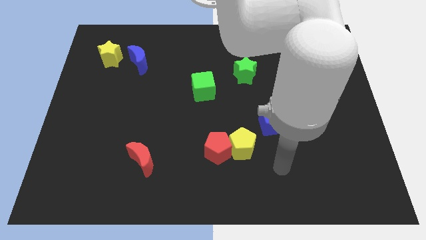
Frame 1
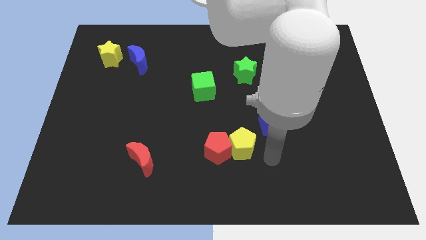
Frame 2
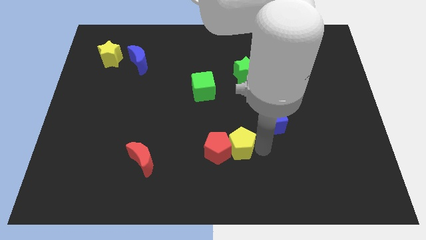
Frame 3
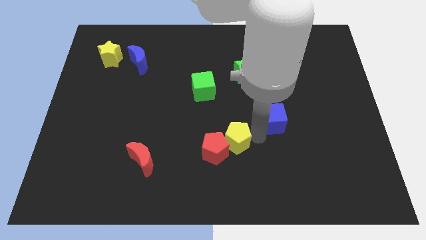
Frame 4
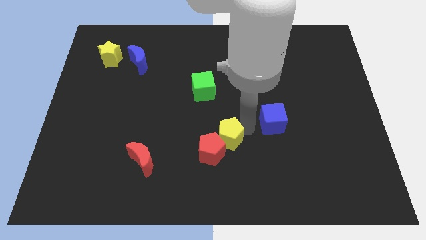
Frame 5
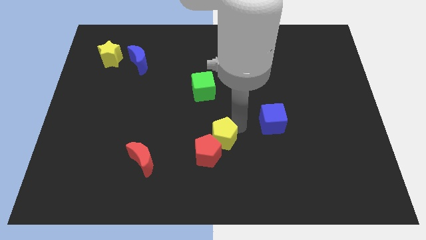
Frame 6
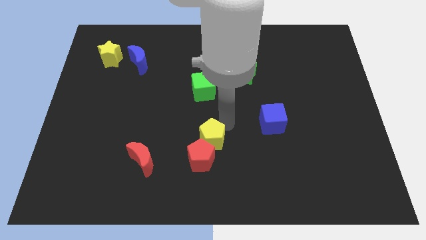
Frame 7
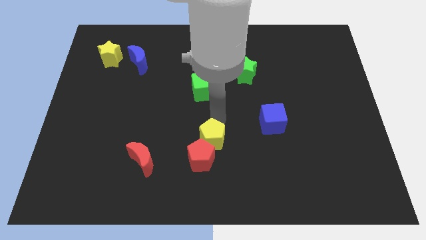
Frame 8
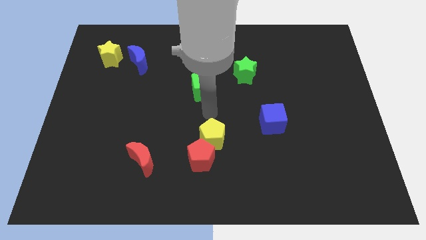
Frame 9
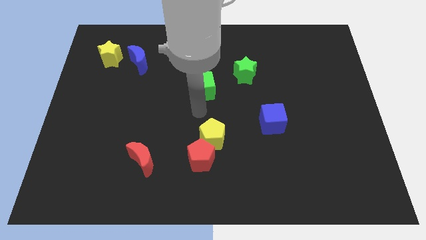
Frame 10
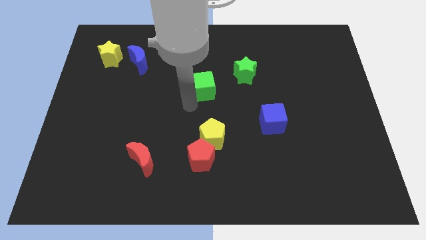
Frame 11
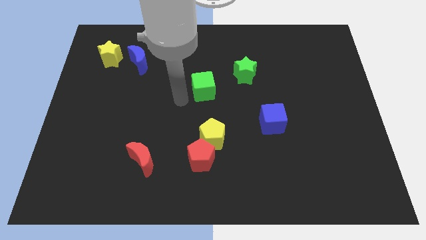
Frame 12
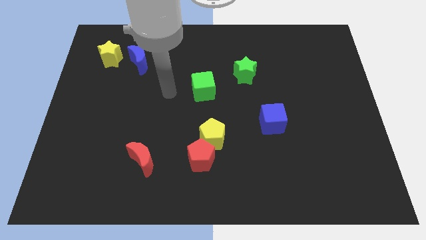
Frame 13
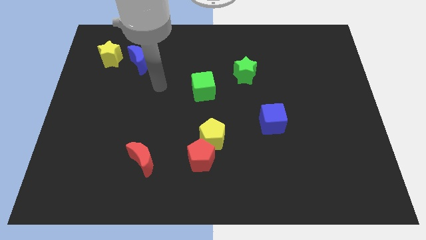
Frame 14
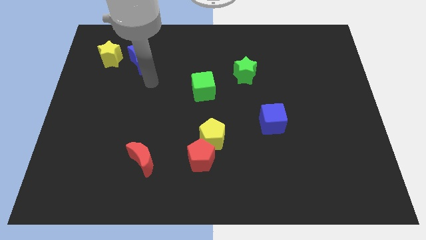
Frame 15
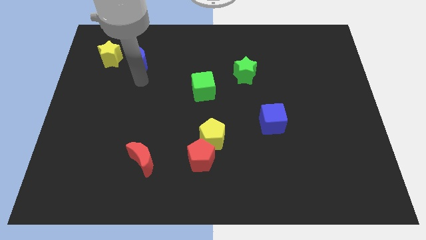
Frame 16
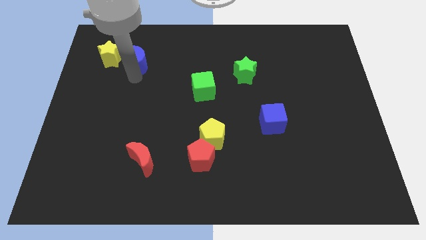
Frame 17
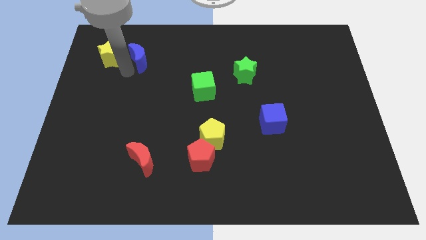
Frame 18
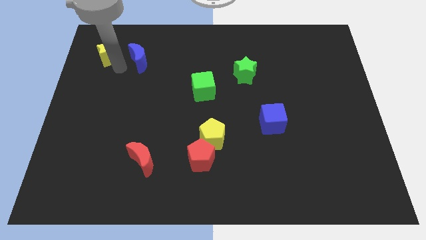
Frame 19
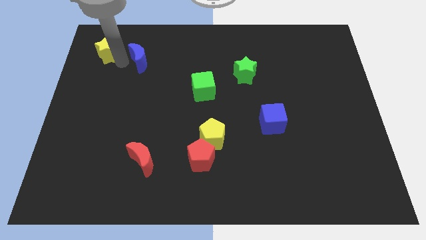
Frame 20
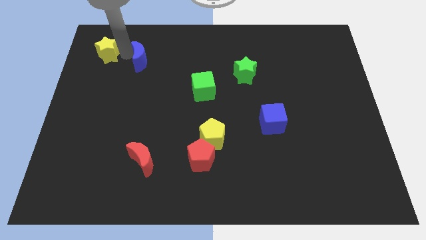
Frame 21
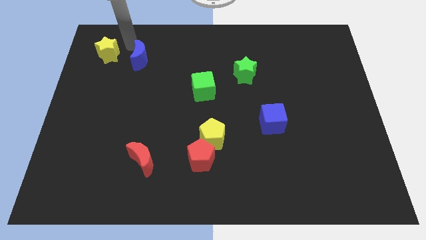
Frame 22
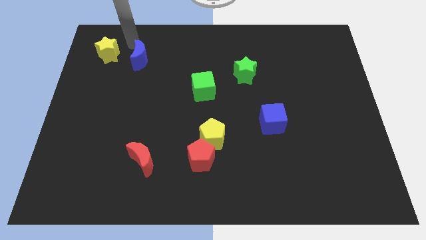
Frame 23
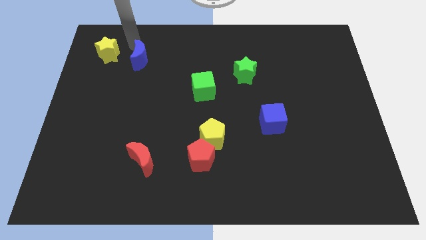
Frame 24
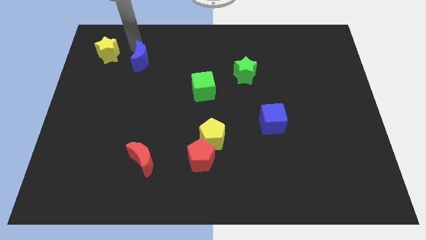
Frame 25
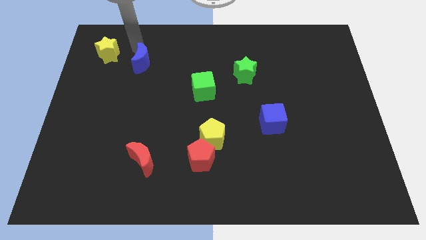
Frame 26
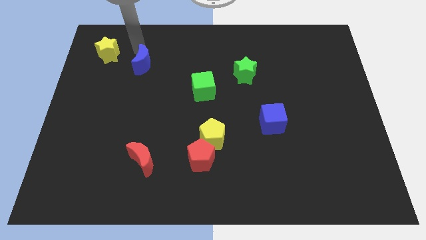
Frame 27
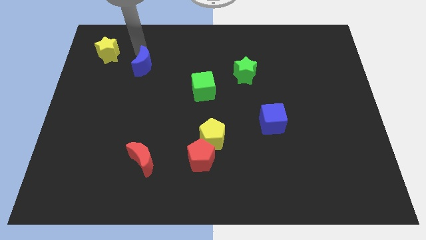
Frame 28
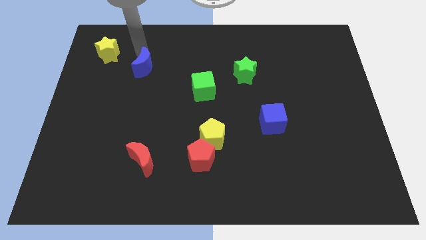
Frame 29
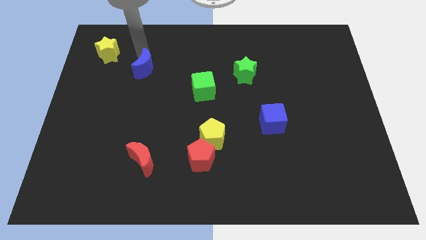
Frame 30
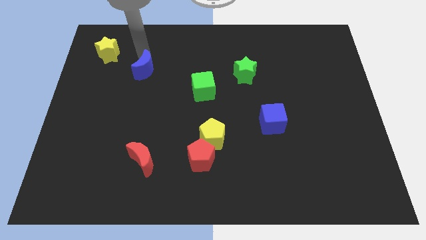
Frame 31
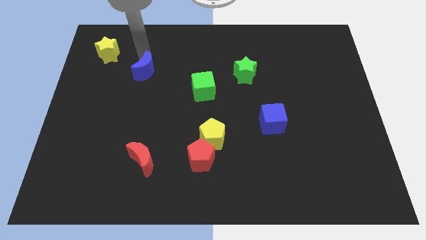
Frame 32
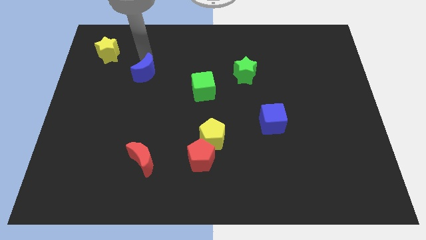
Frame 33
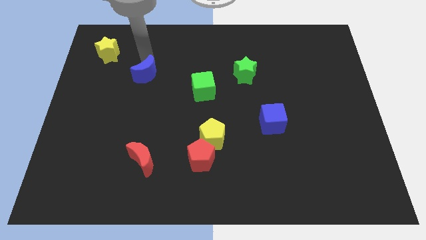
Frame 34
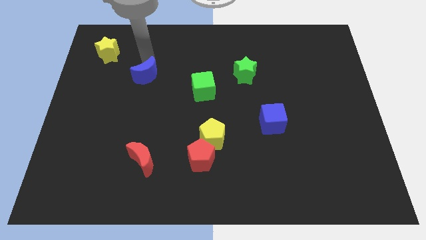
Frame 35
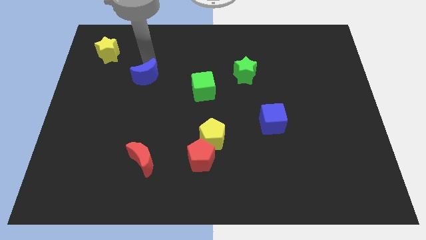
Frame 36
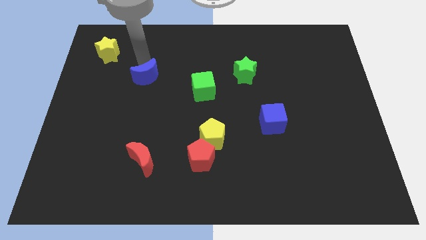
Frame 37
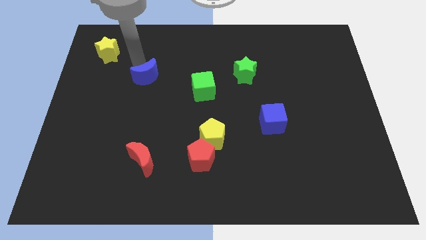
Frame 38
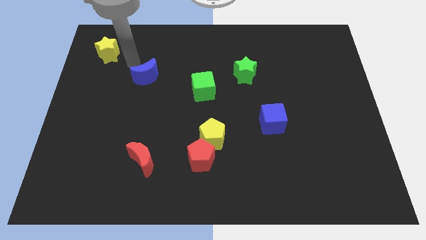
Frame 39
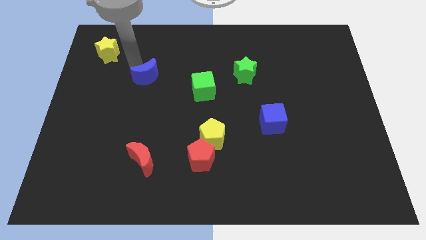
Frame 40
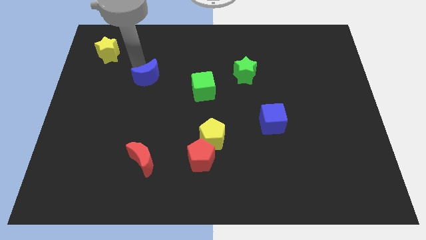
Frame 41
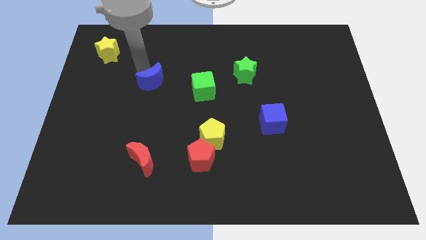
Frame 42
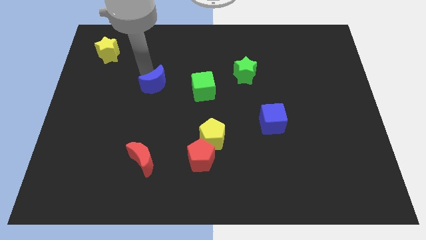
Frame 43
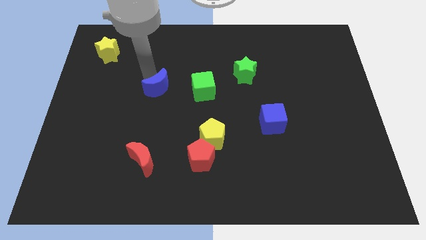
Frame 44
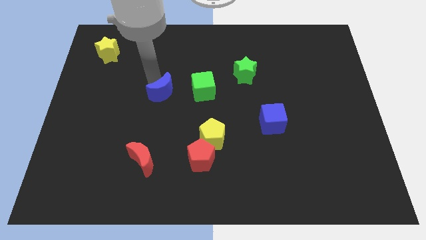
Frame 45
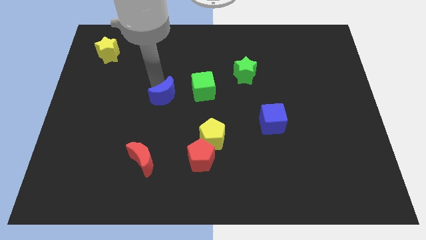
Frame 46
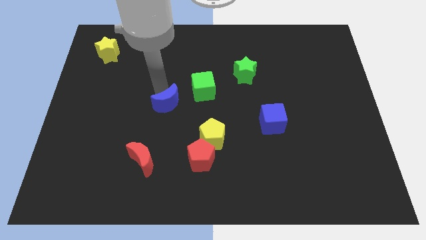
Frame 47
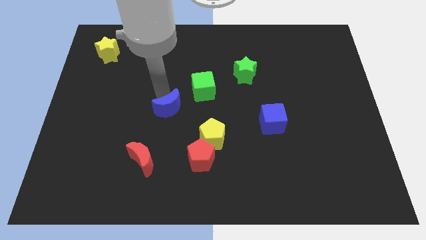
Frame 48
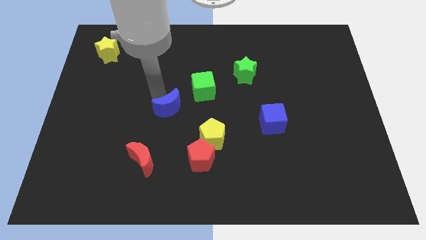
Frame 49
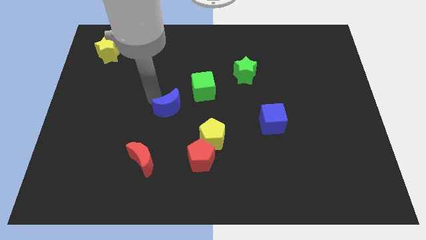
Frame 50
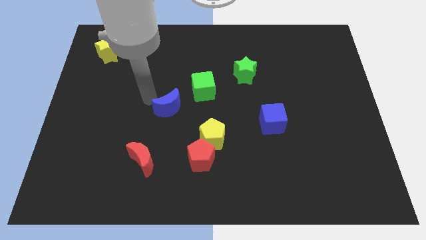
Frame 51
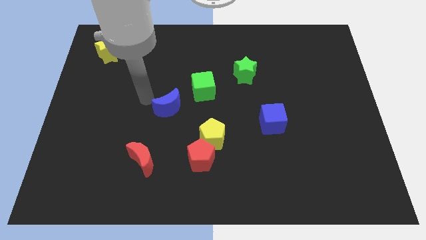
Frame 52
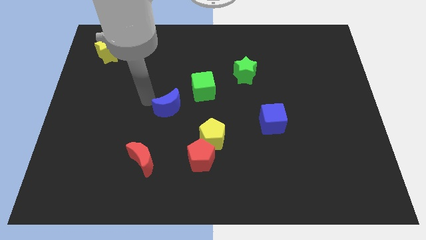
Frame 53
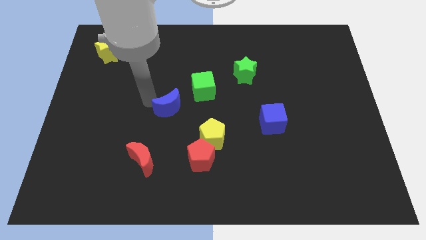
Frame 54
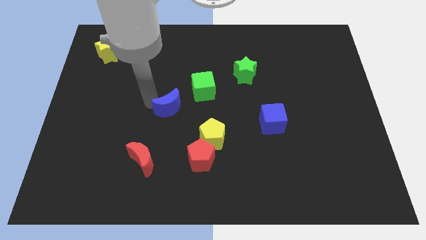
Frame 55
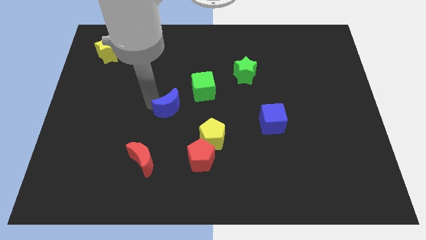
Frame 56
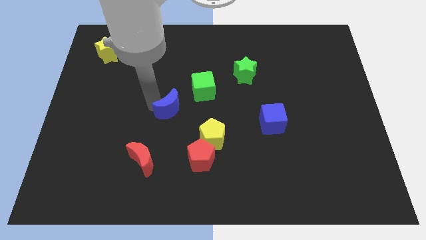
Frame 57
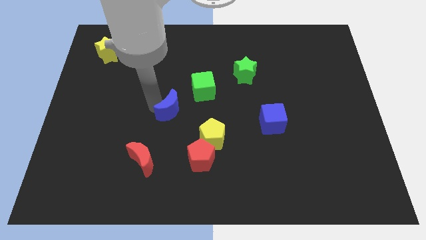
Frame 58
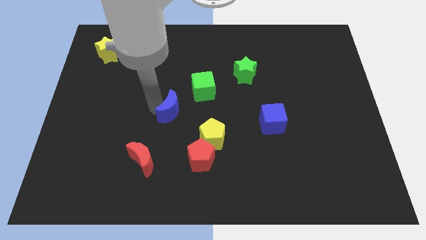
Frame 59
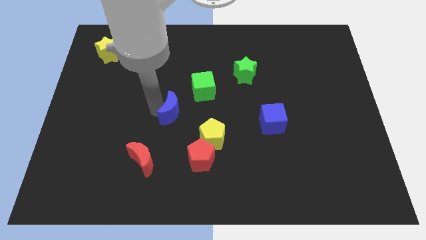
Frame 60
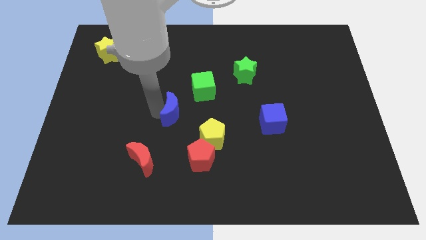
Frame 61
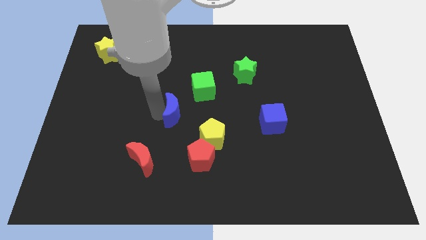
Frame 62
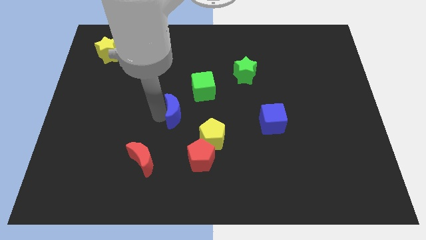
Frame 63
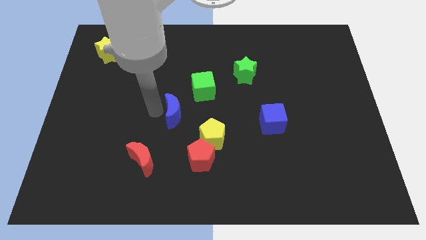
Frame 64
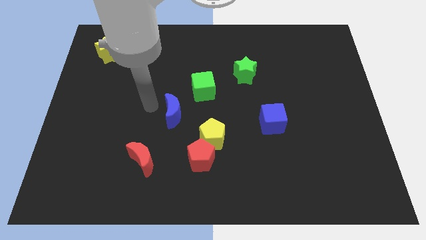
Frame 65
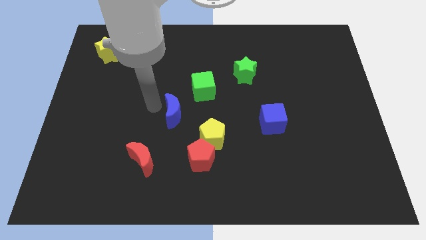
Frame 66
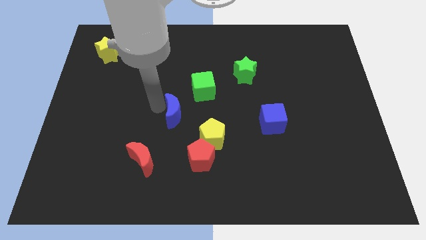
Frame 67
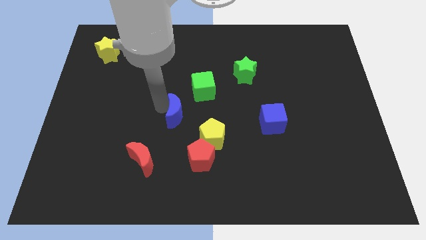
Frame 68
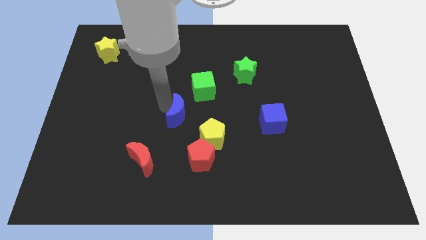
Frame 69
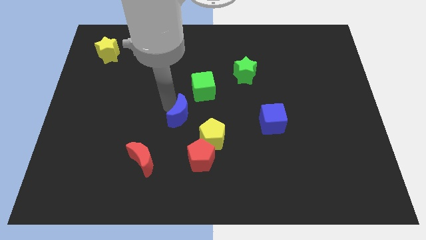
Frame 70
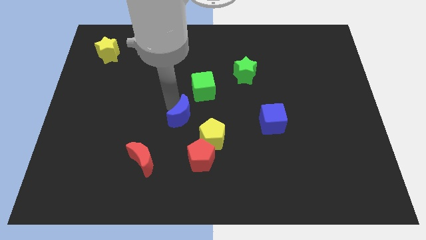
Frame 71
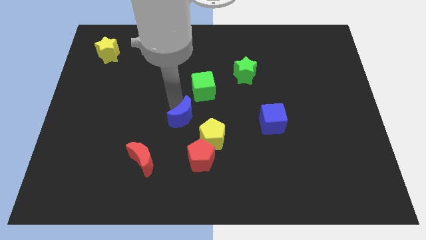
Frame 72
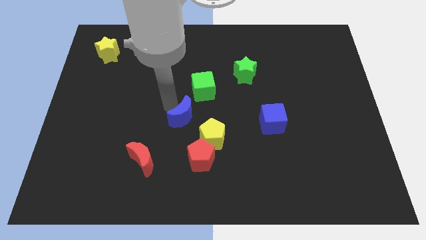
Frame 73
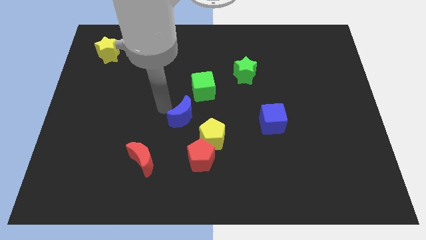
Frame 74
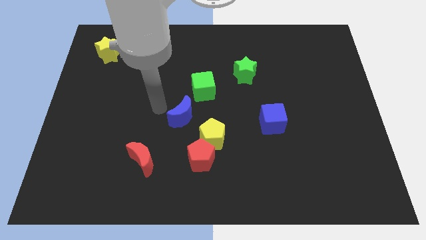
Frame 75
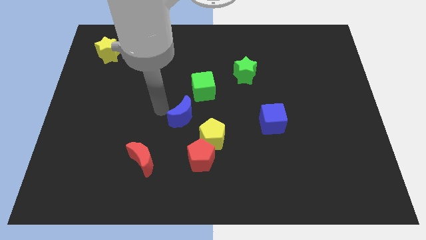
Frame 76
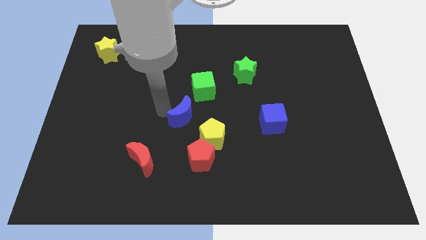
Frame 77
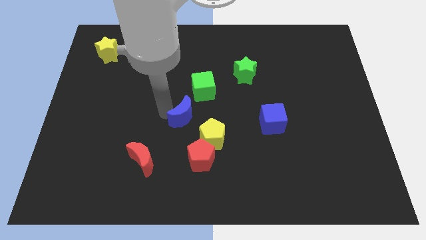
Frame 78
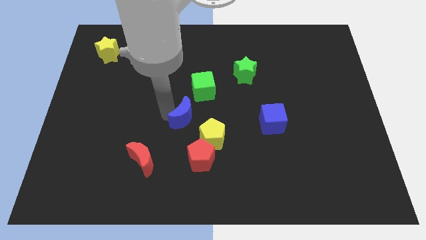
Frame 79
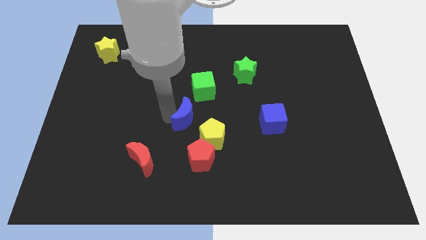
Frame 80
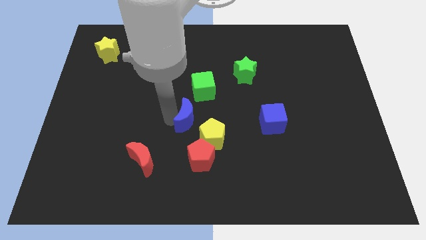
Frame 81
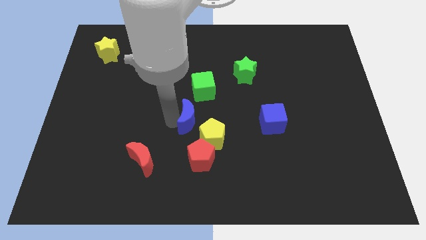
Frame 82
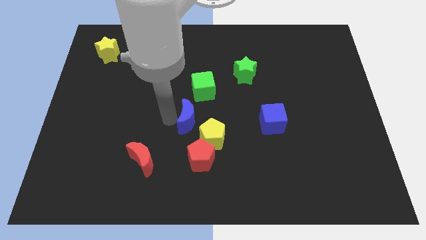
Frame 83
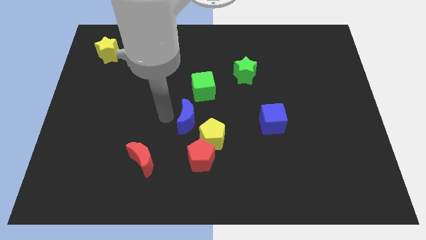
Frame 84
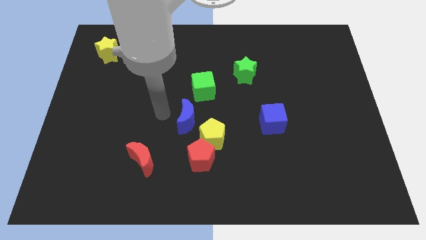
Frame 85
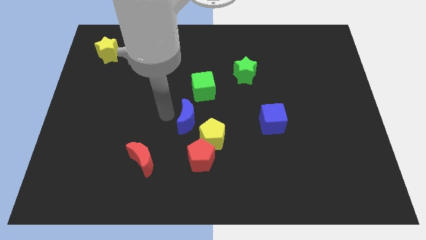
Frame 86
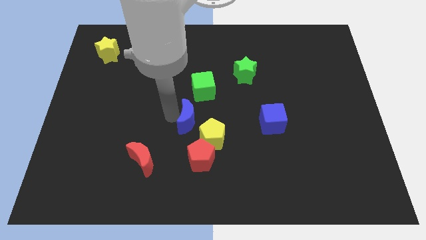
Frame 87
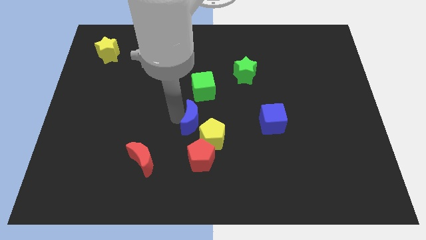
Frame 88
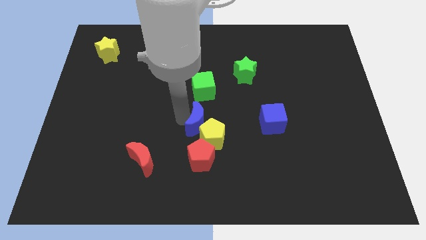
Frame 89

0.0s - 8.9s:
move the blue moon next to the yellow pentagon
